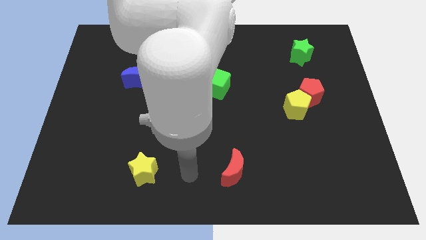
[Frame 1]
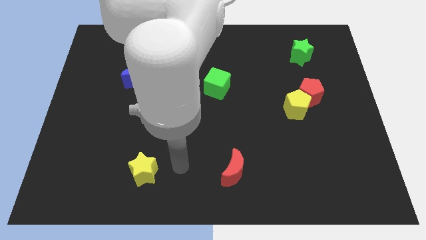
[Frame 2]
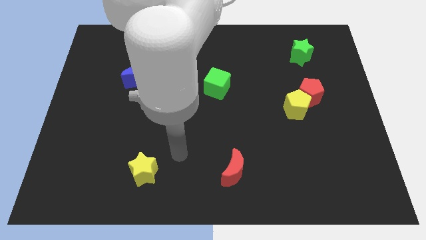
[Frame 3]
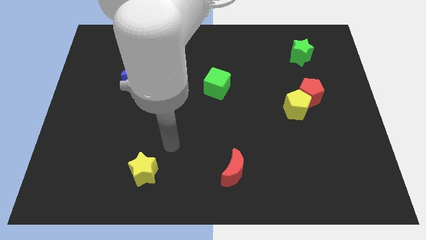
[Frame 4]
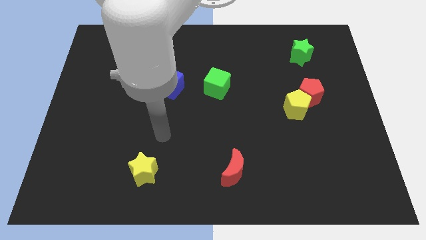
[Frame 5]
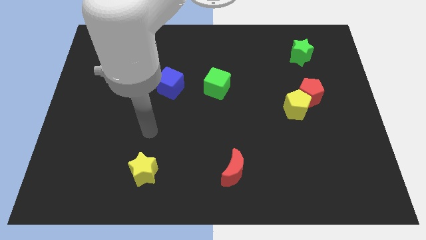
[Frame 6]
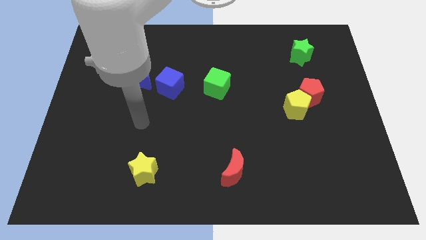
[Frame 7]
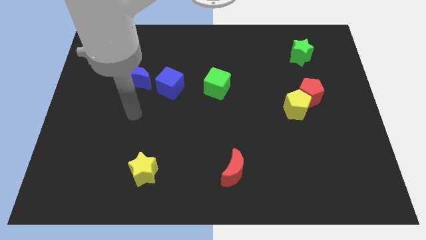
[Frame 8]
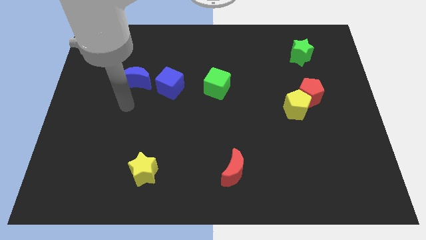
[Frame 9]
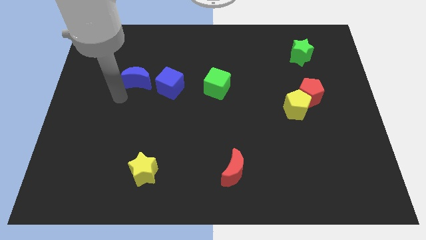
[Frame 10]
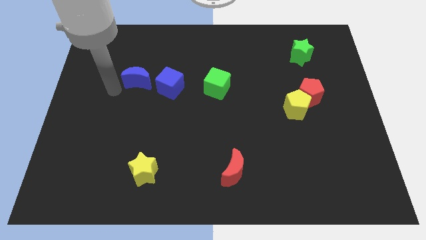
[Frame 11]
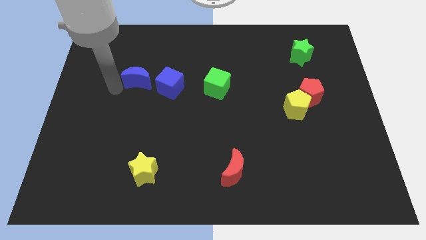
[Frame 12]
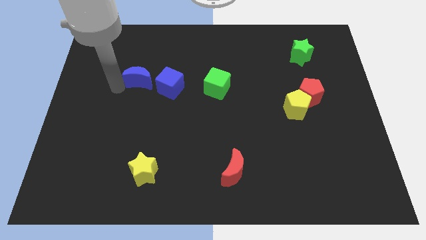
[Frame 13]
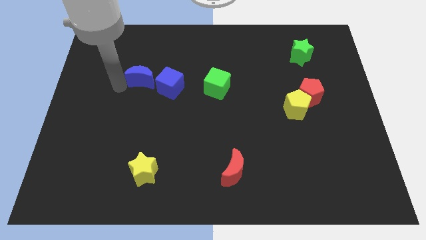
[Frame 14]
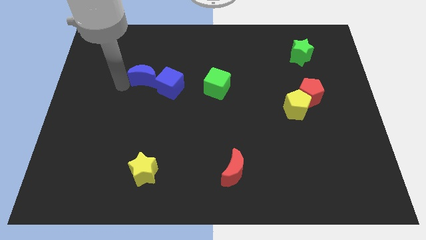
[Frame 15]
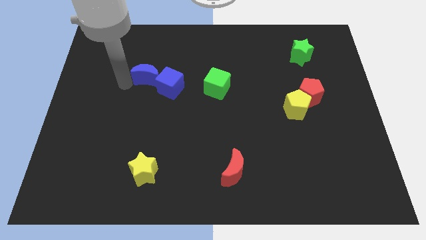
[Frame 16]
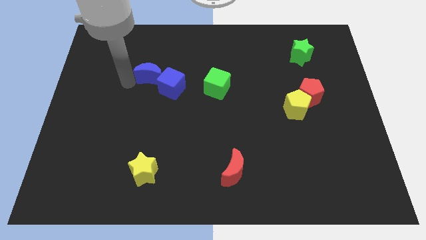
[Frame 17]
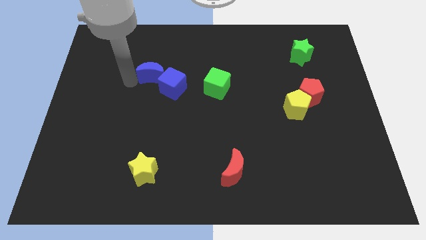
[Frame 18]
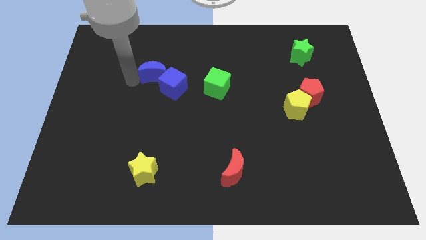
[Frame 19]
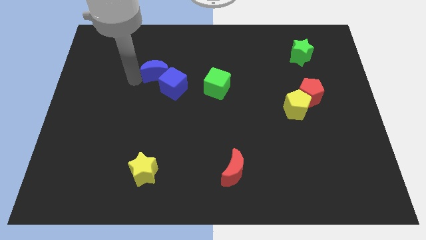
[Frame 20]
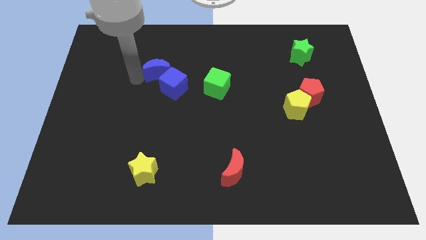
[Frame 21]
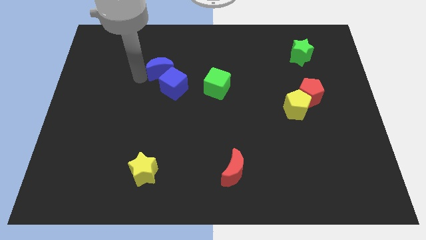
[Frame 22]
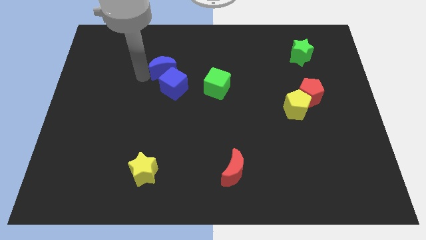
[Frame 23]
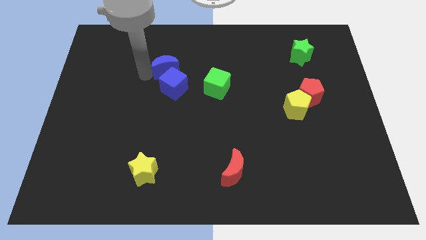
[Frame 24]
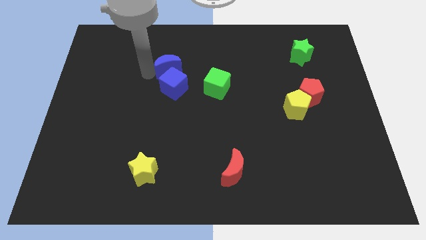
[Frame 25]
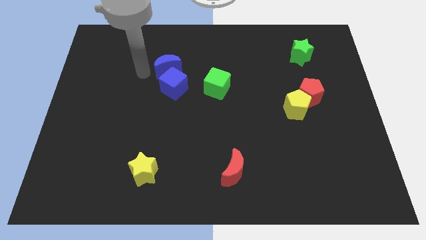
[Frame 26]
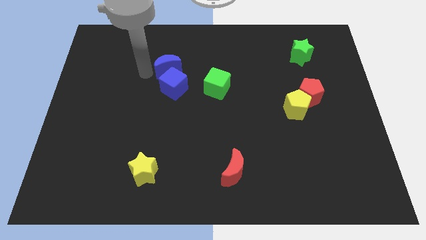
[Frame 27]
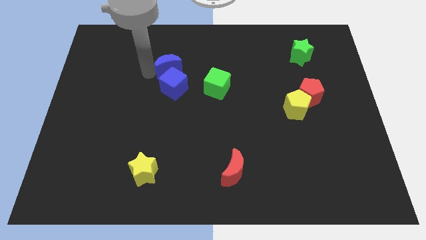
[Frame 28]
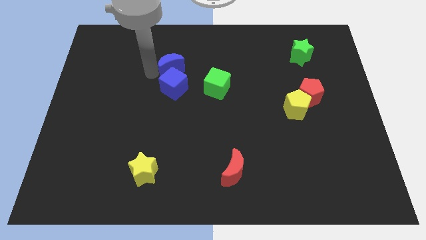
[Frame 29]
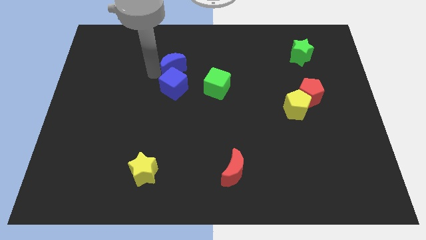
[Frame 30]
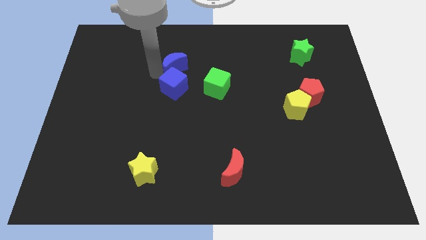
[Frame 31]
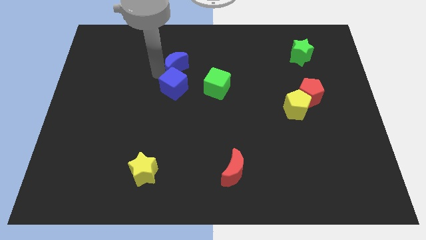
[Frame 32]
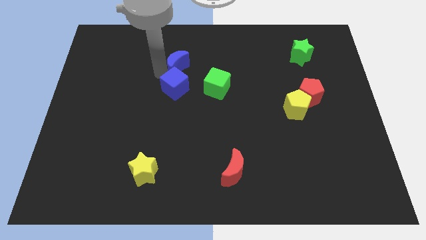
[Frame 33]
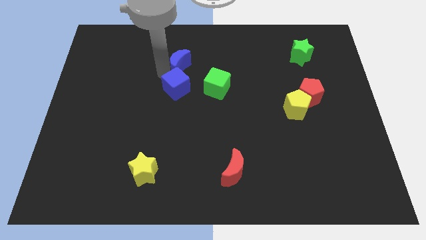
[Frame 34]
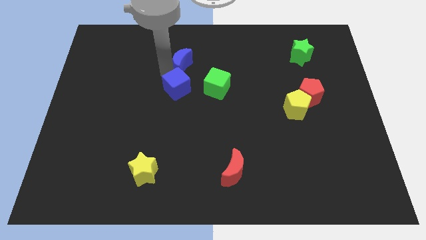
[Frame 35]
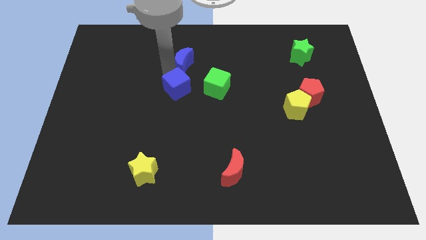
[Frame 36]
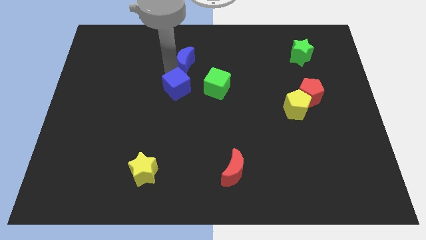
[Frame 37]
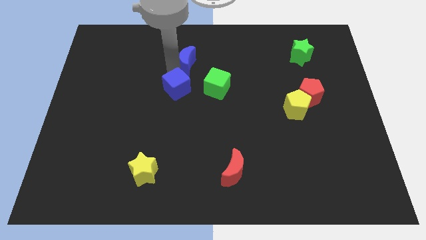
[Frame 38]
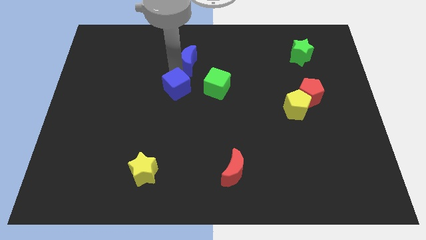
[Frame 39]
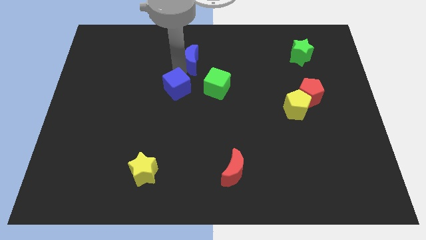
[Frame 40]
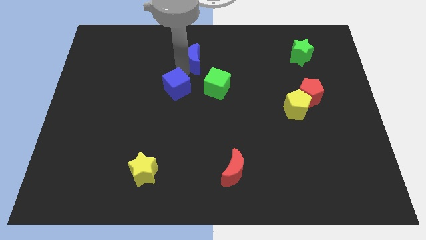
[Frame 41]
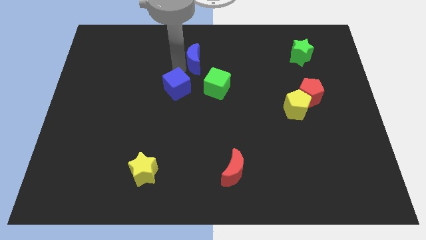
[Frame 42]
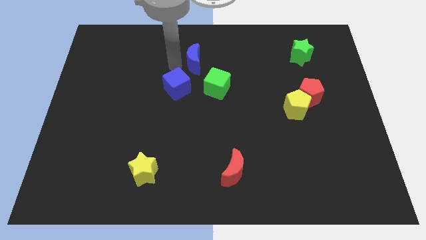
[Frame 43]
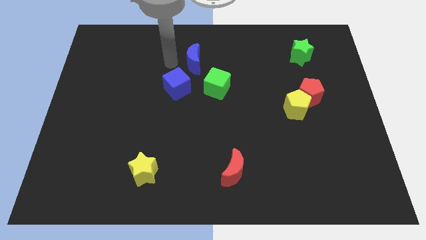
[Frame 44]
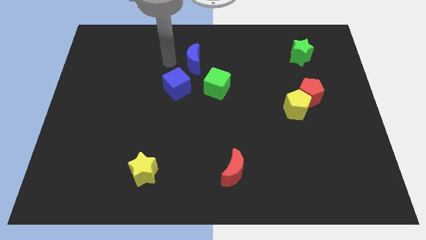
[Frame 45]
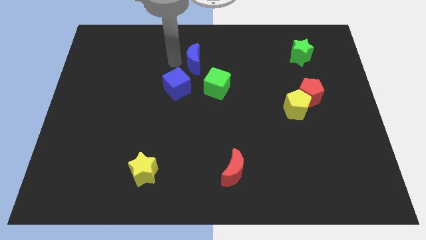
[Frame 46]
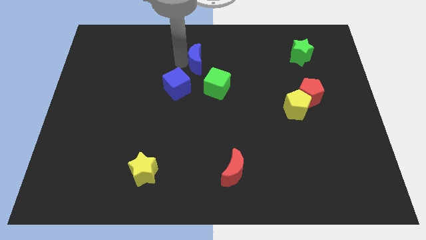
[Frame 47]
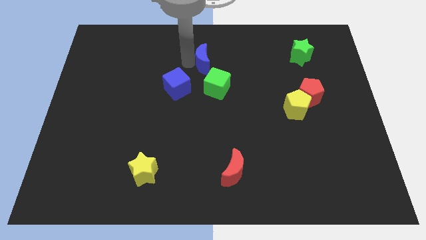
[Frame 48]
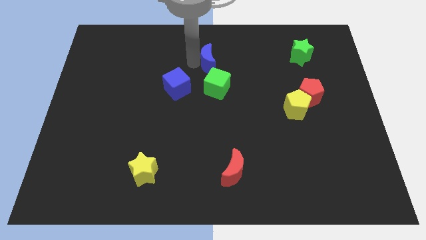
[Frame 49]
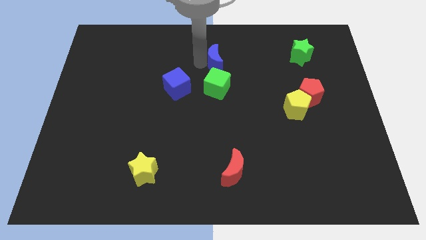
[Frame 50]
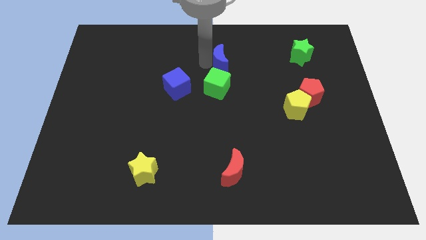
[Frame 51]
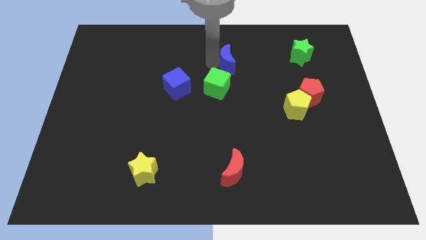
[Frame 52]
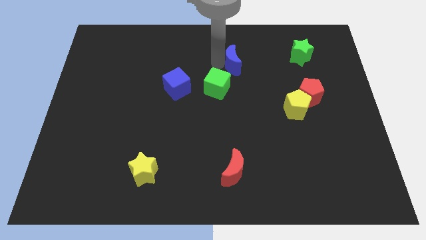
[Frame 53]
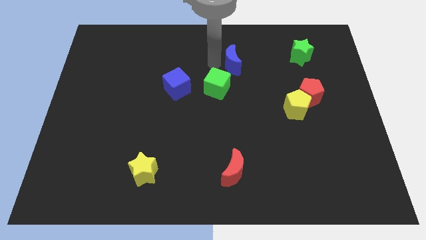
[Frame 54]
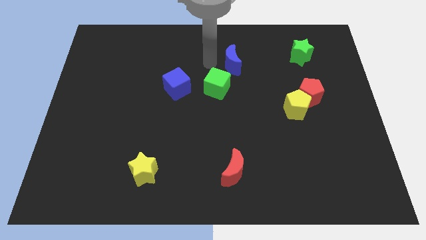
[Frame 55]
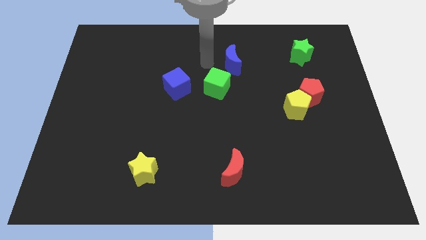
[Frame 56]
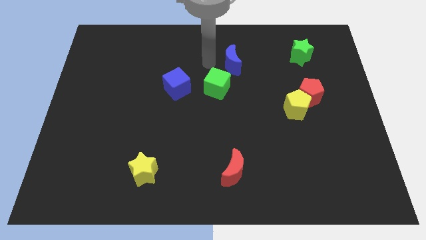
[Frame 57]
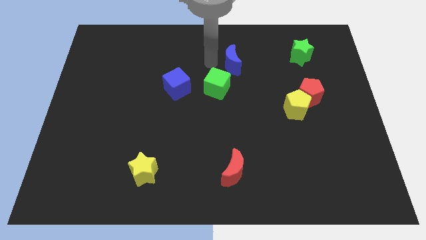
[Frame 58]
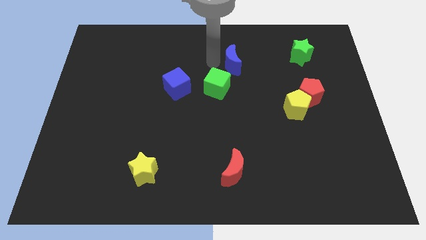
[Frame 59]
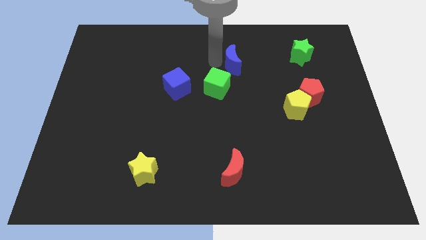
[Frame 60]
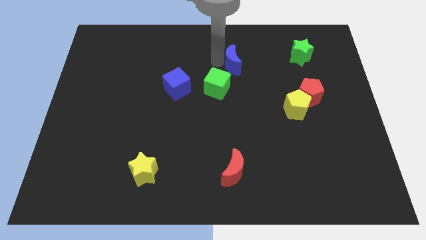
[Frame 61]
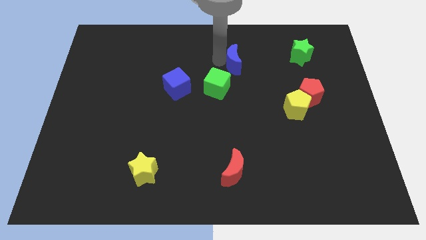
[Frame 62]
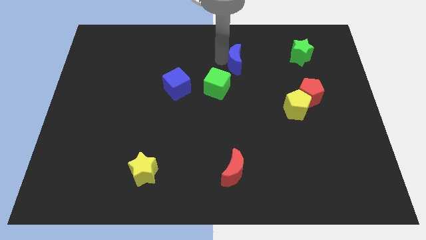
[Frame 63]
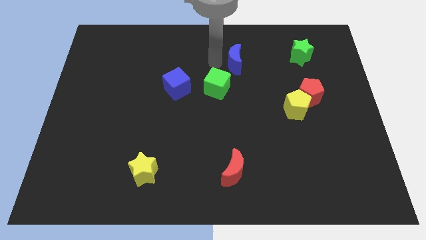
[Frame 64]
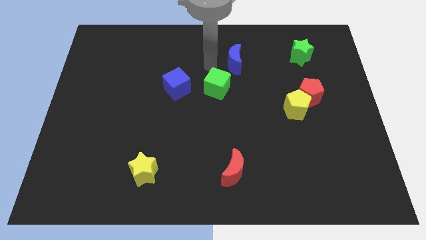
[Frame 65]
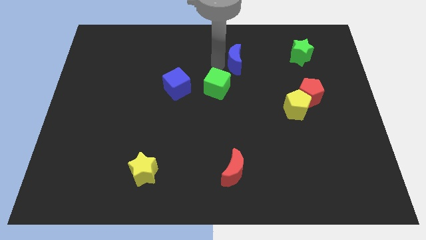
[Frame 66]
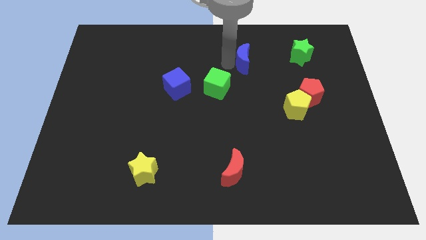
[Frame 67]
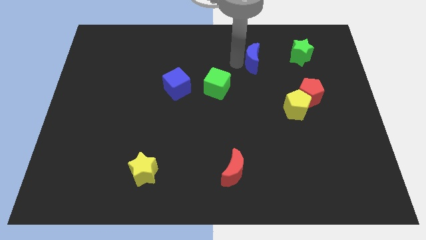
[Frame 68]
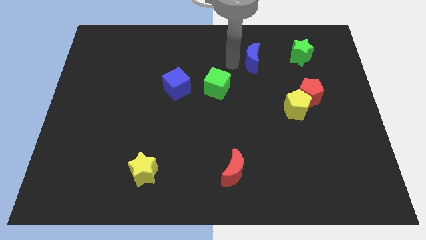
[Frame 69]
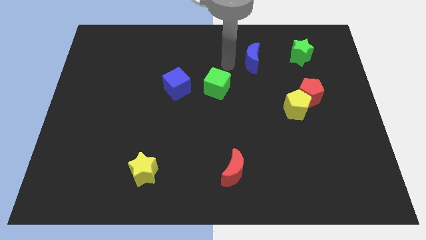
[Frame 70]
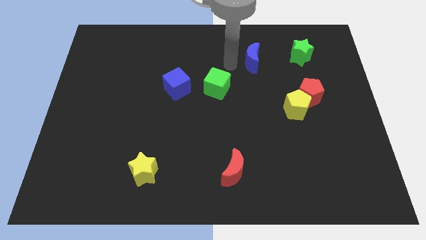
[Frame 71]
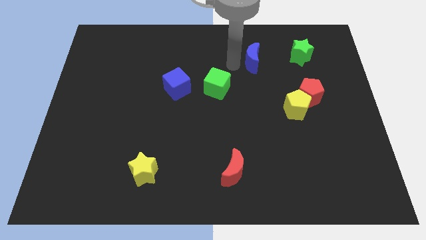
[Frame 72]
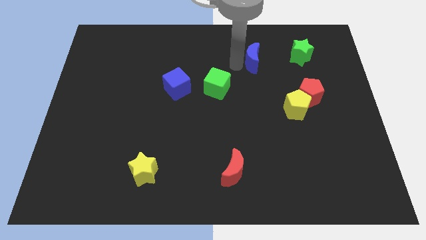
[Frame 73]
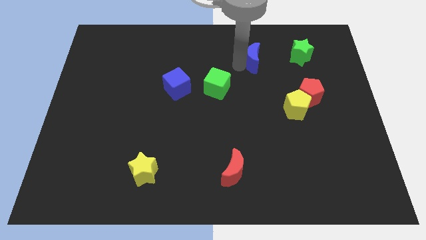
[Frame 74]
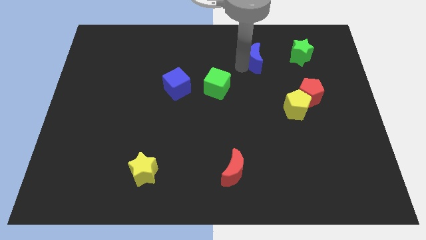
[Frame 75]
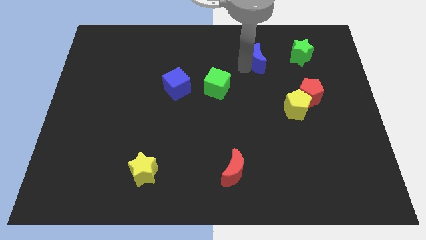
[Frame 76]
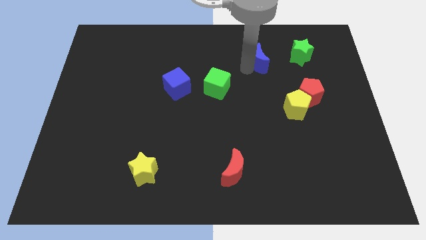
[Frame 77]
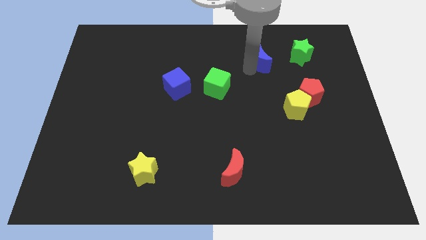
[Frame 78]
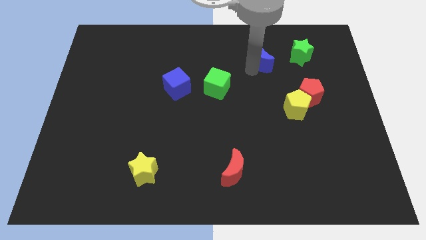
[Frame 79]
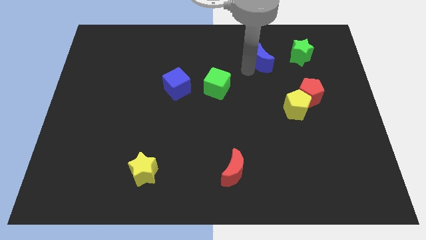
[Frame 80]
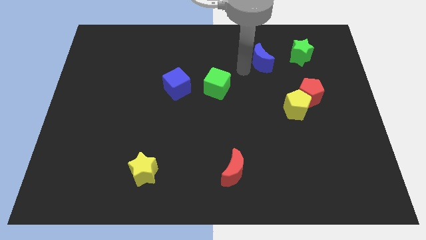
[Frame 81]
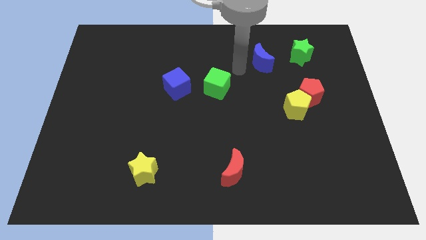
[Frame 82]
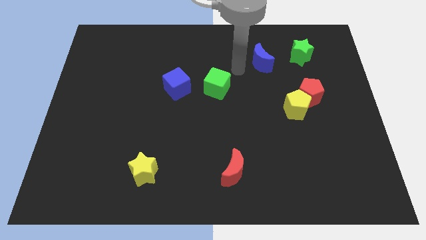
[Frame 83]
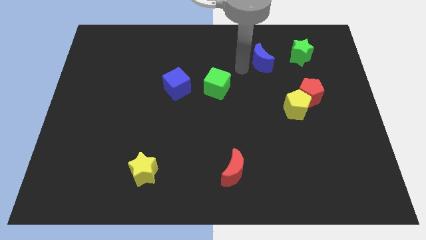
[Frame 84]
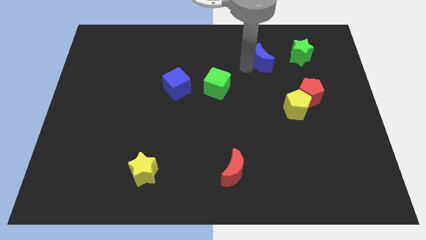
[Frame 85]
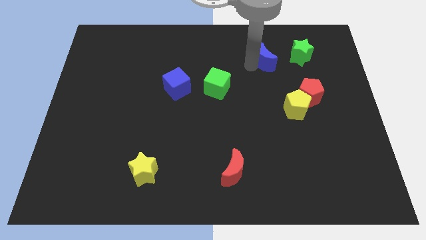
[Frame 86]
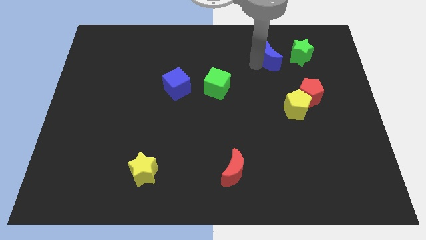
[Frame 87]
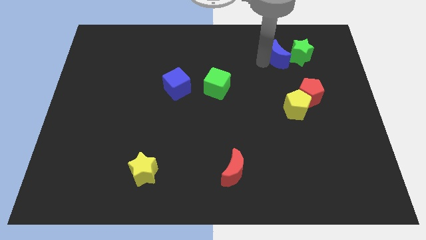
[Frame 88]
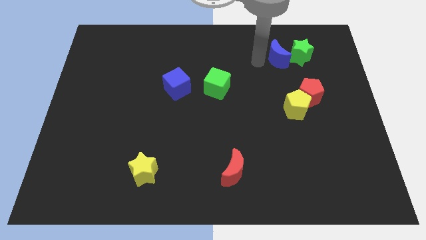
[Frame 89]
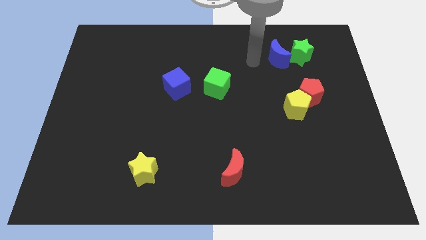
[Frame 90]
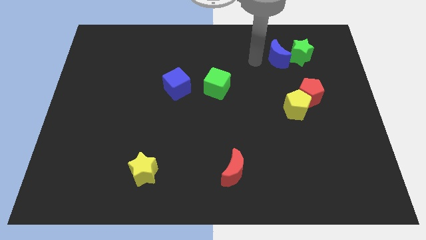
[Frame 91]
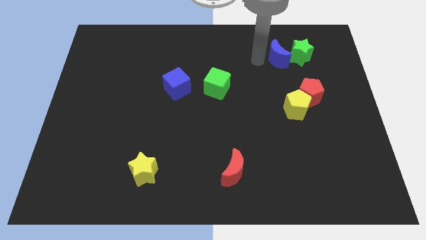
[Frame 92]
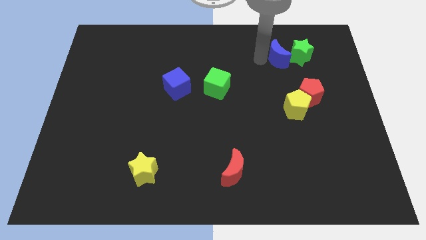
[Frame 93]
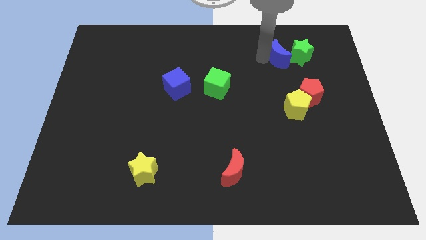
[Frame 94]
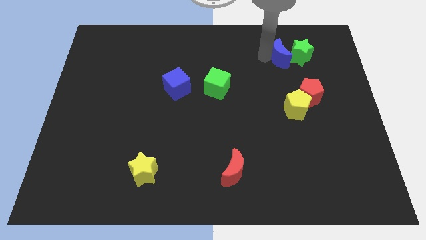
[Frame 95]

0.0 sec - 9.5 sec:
put the blue moon close to the green star
